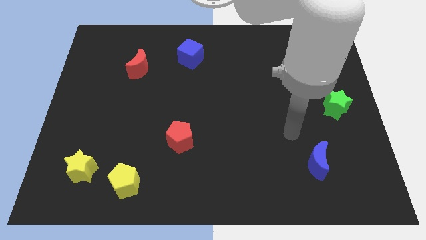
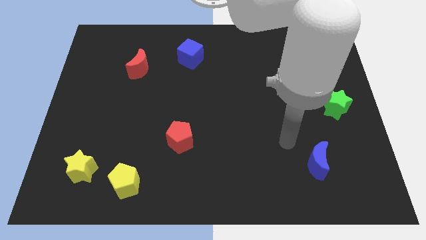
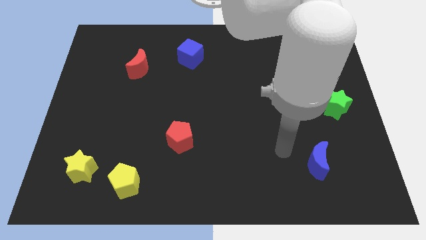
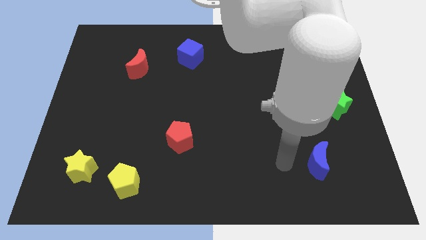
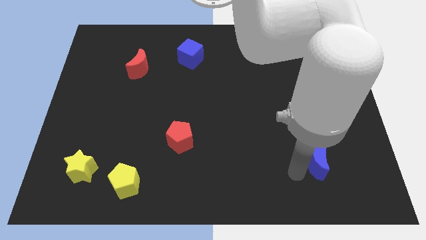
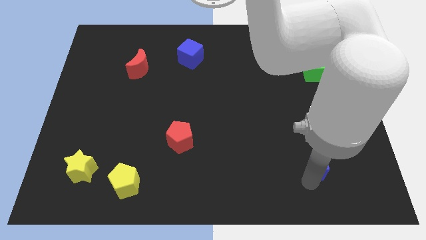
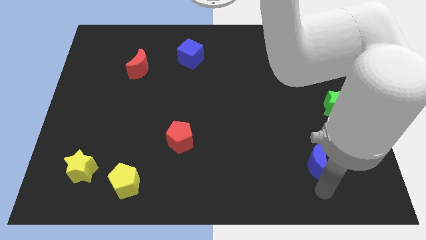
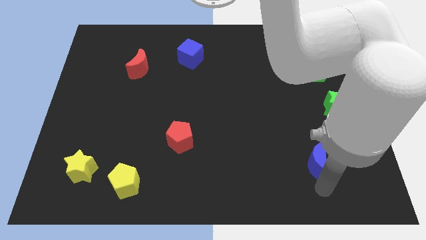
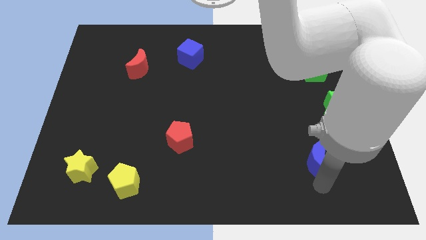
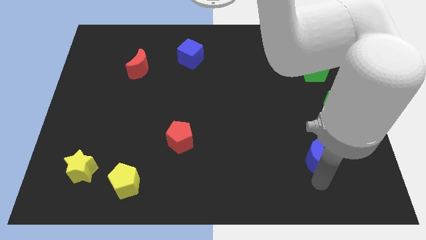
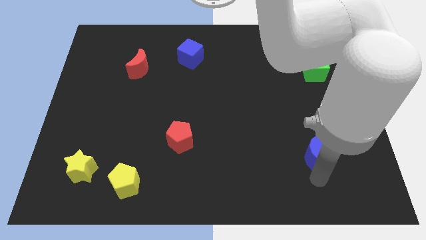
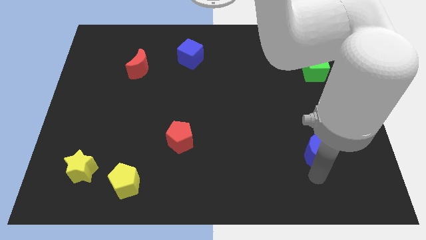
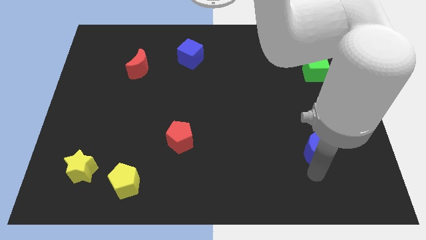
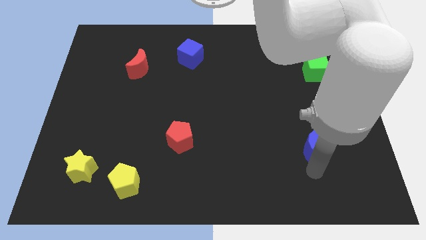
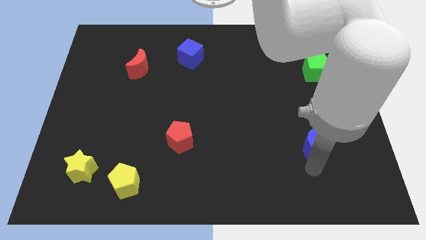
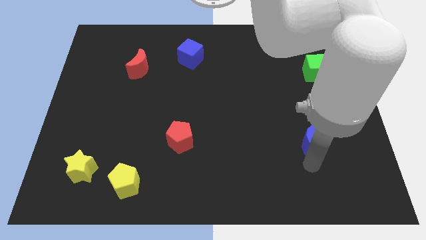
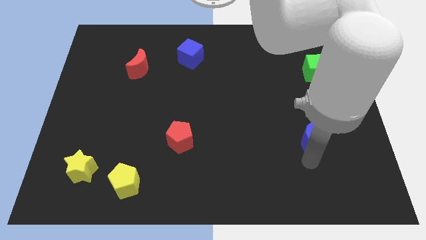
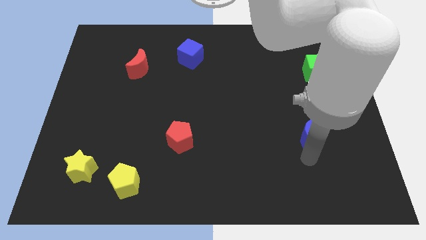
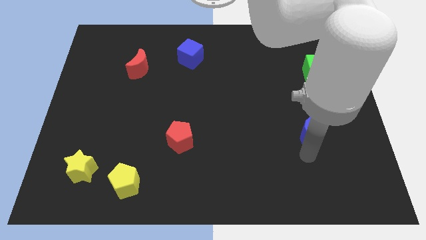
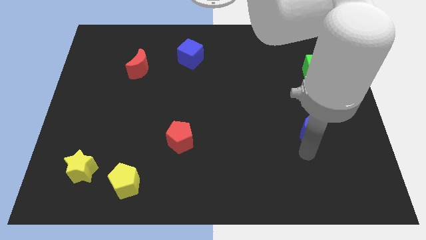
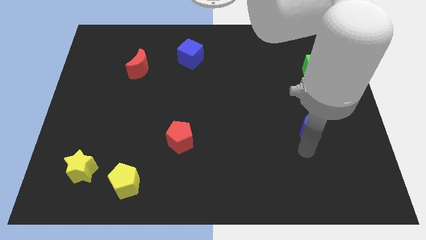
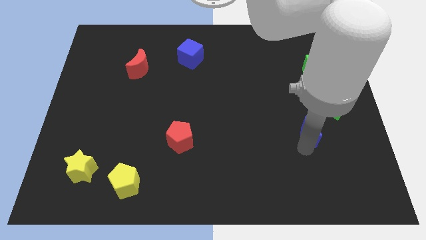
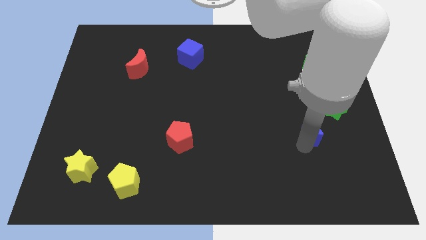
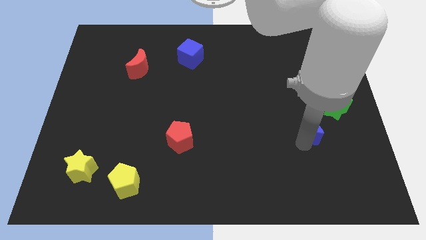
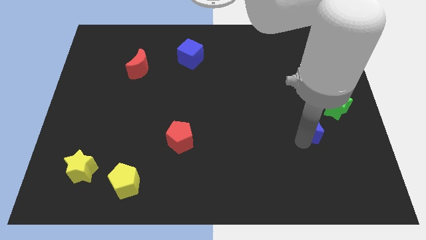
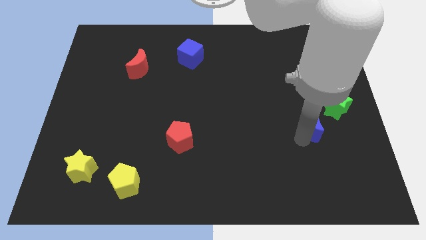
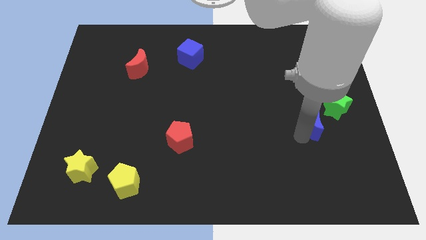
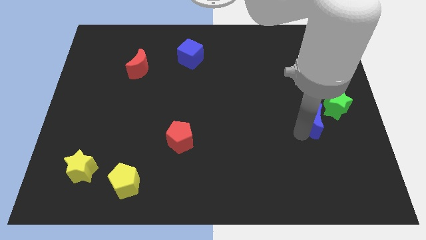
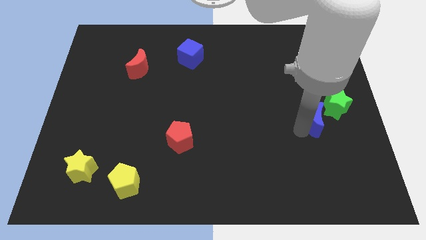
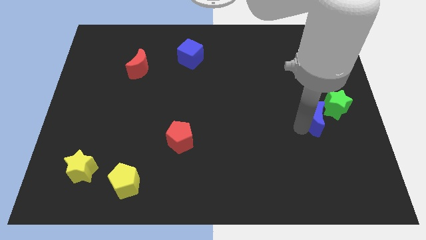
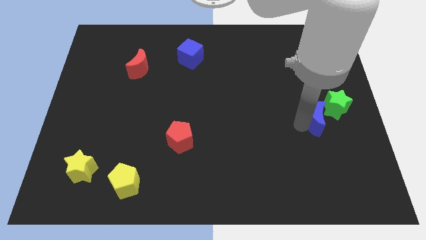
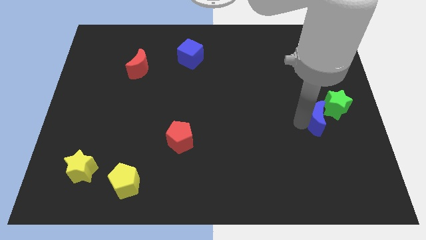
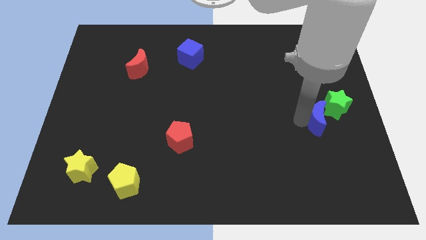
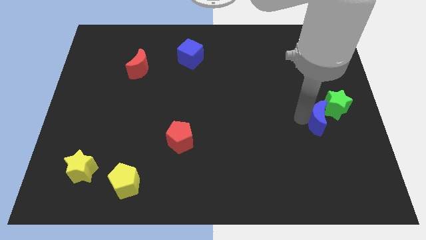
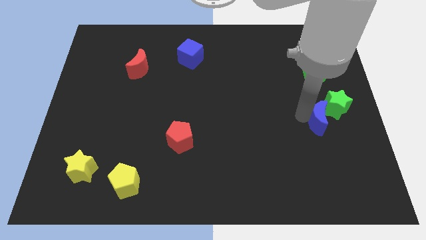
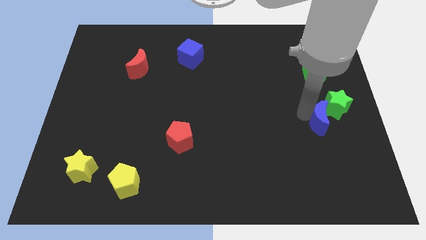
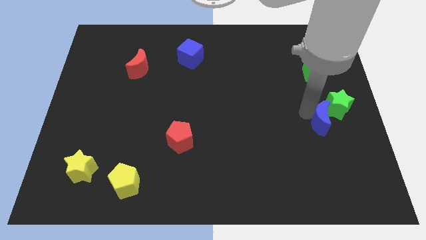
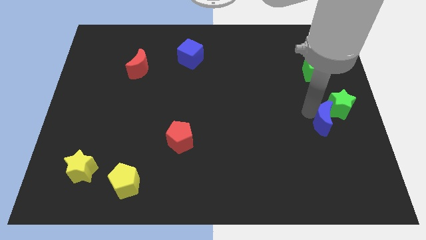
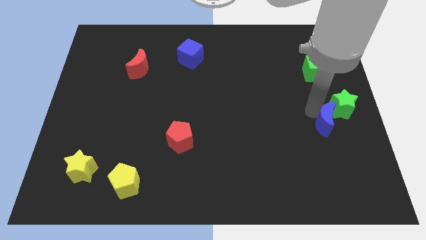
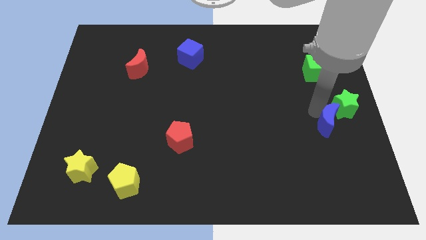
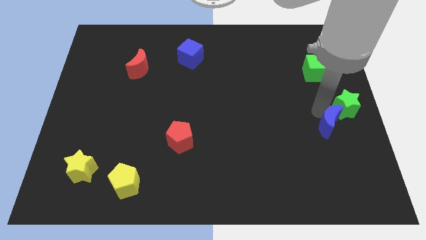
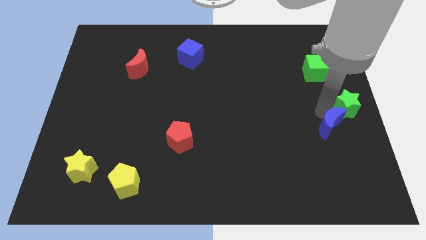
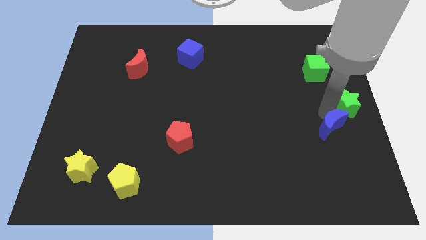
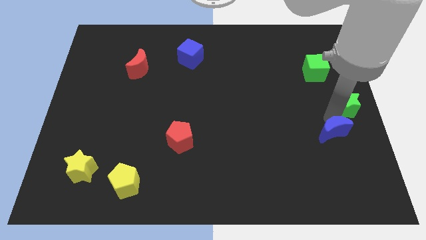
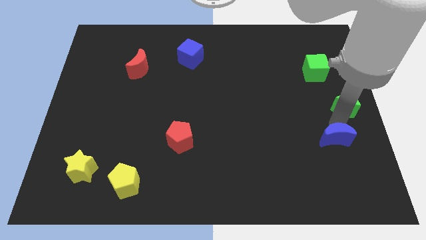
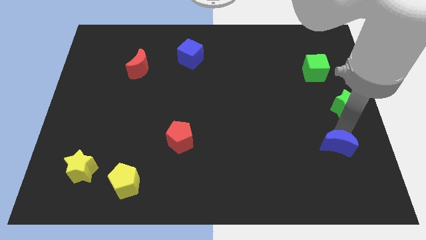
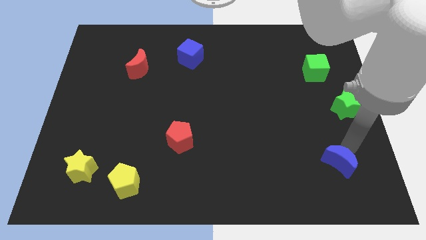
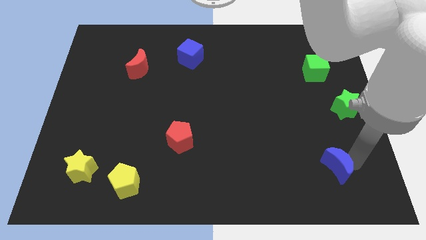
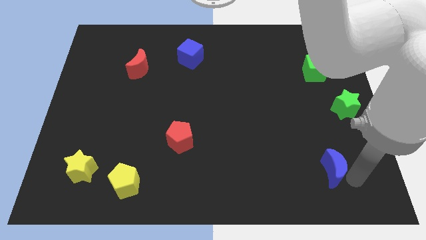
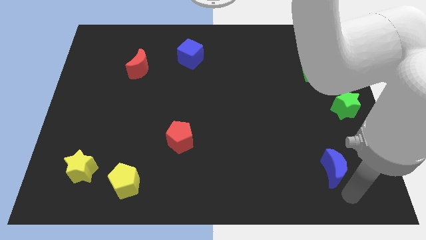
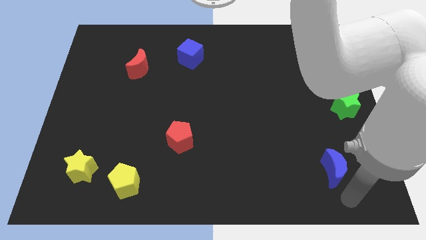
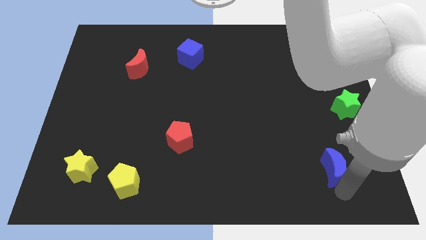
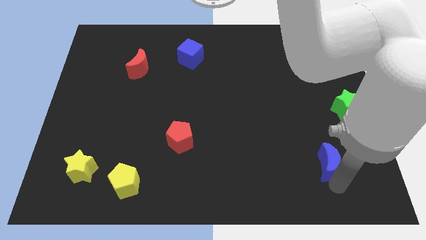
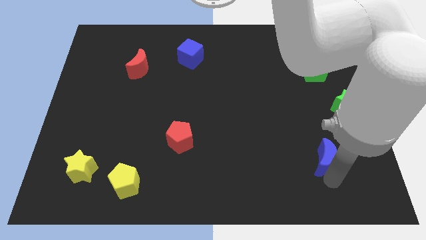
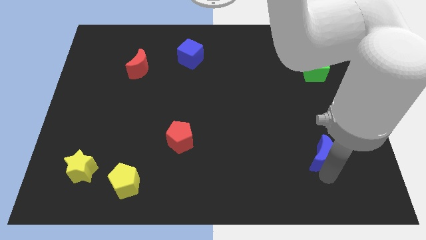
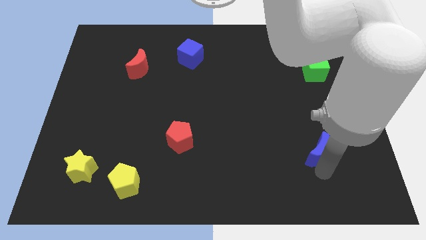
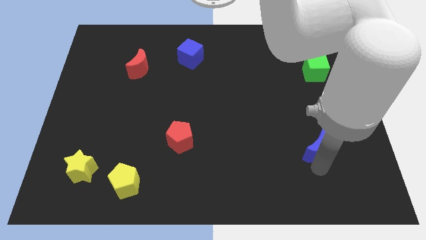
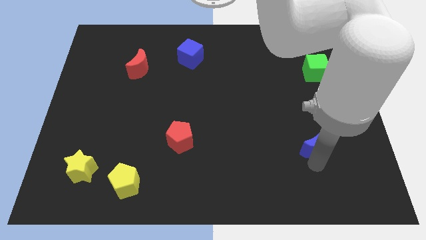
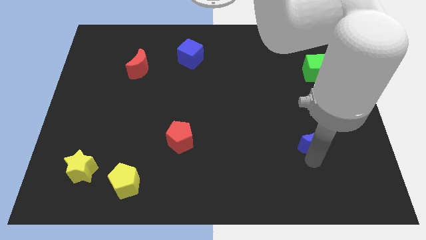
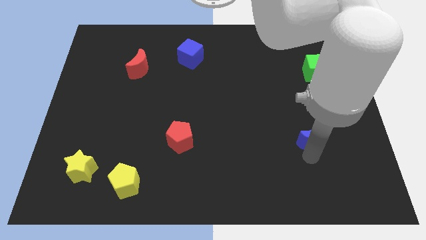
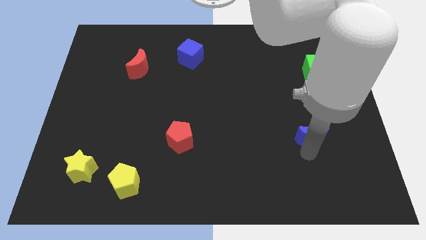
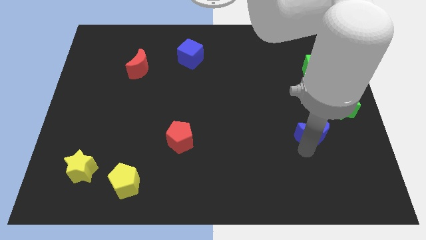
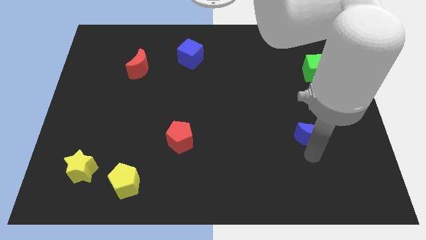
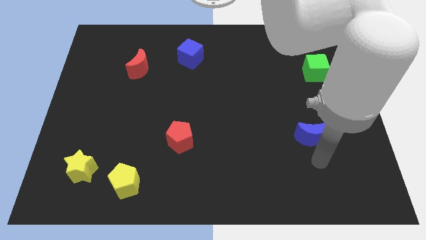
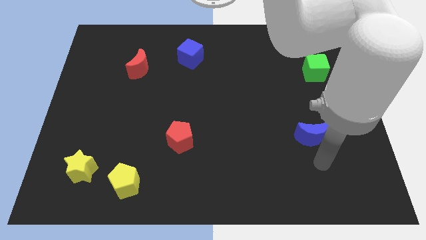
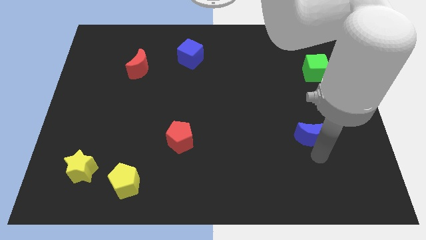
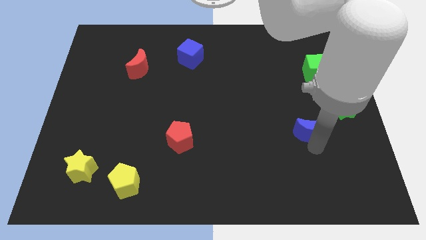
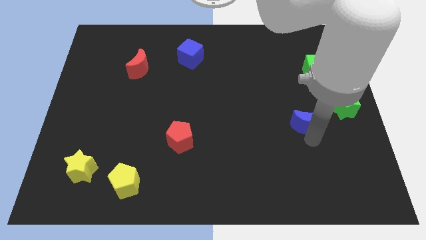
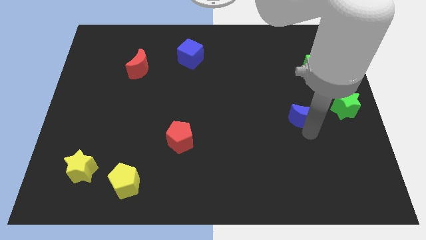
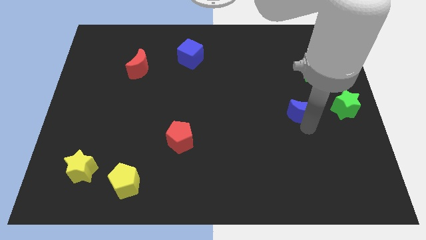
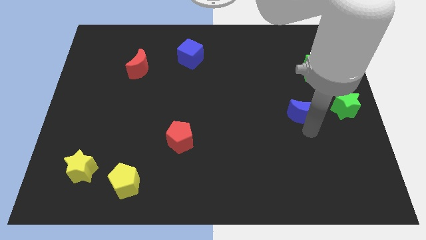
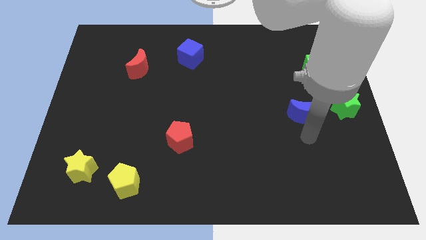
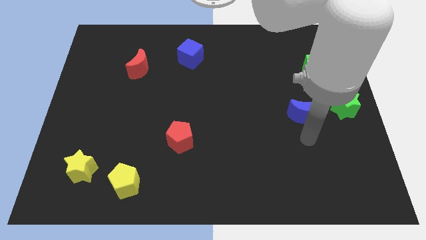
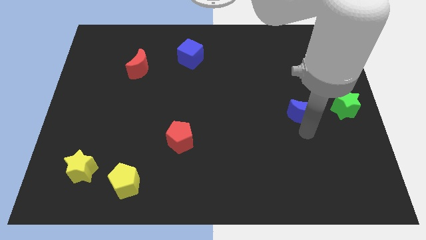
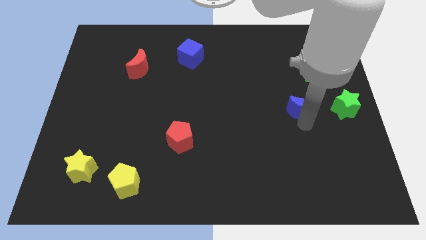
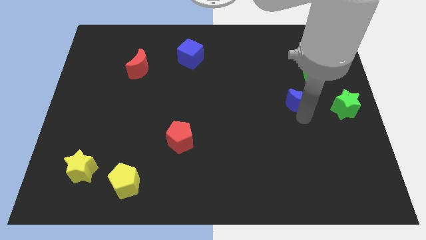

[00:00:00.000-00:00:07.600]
move the blue moon to the bottom left of the green cube
